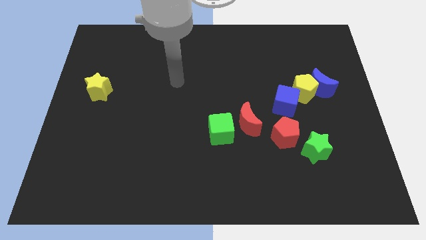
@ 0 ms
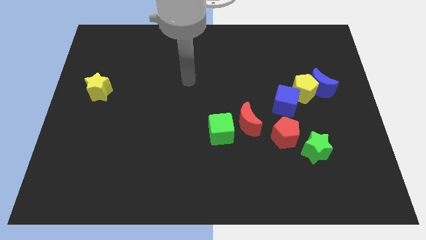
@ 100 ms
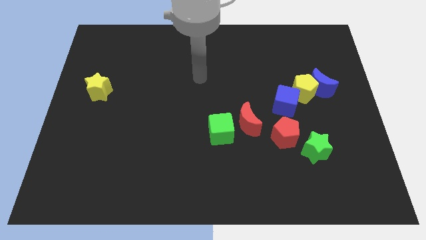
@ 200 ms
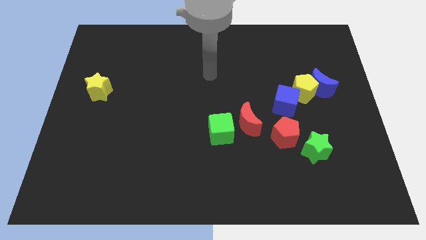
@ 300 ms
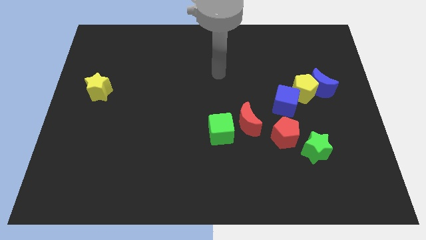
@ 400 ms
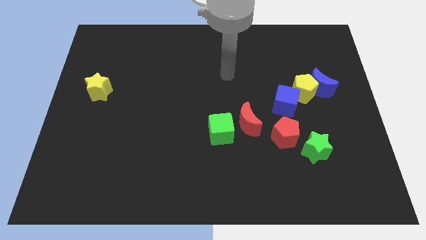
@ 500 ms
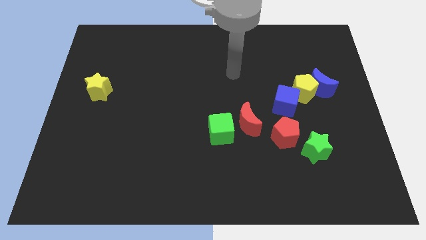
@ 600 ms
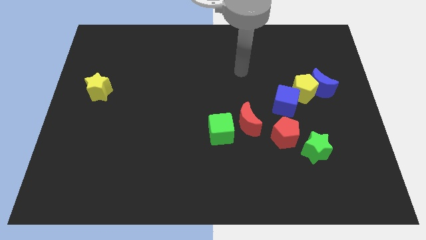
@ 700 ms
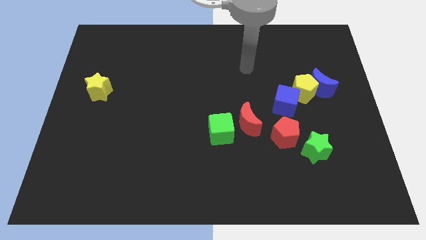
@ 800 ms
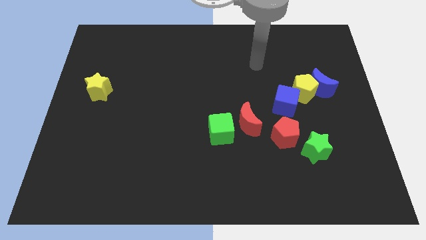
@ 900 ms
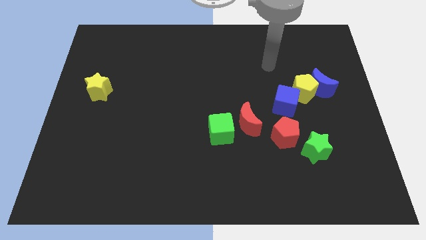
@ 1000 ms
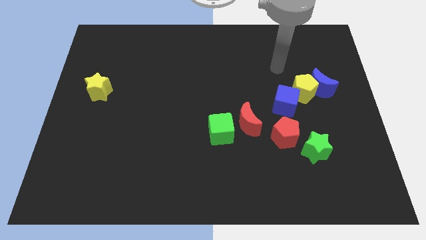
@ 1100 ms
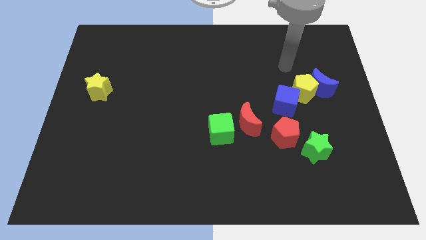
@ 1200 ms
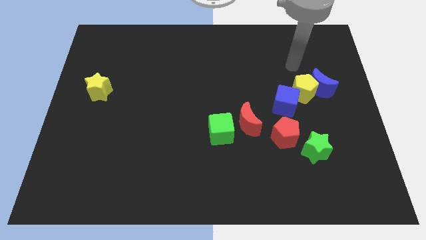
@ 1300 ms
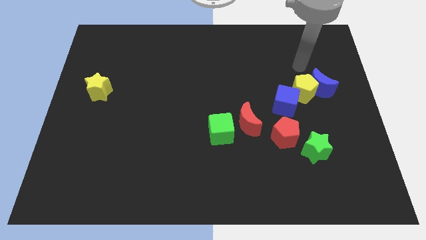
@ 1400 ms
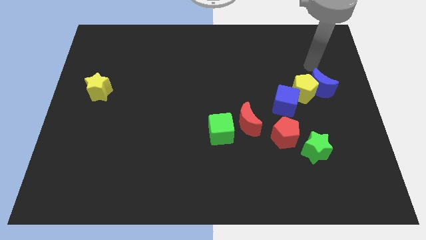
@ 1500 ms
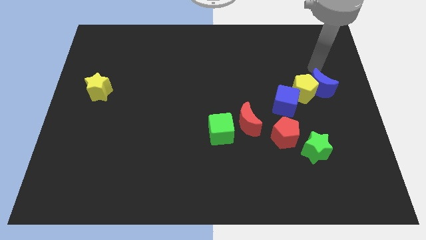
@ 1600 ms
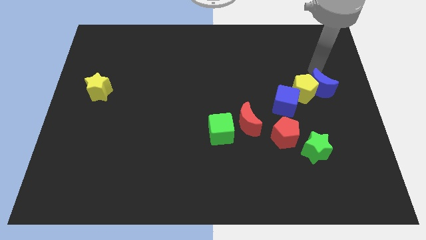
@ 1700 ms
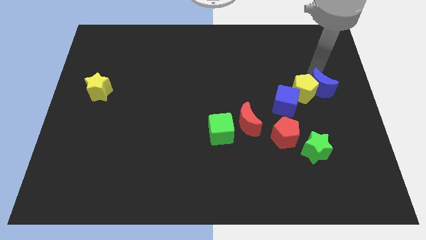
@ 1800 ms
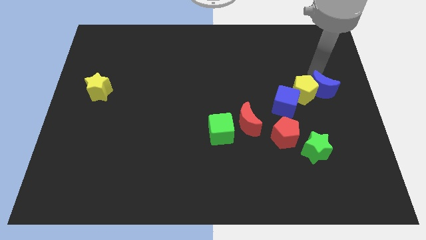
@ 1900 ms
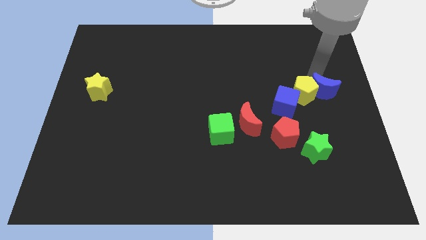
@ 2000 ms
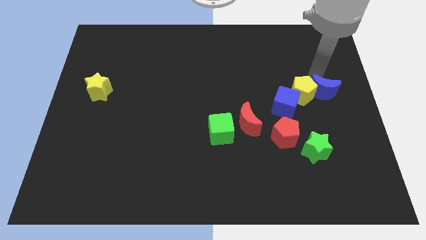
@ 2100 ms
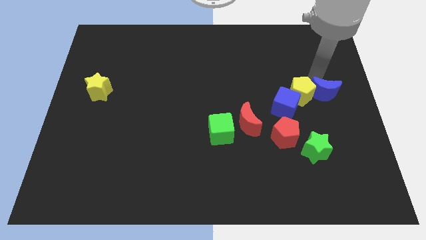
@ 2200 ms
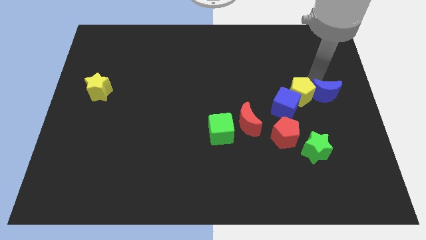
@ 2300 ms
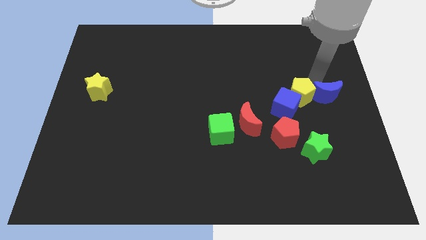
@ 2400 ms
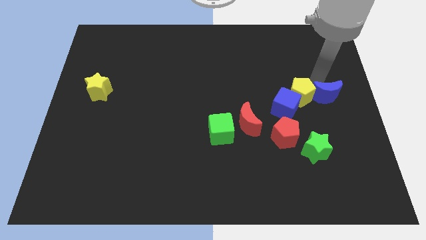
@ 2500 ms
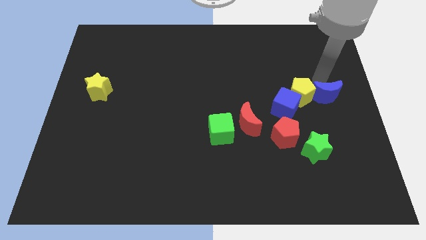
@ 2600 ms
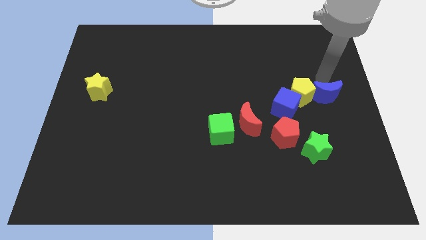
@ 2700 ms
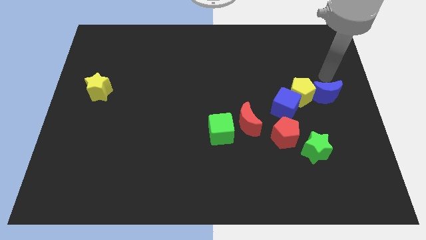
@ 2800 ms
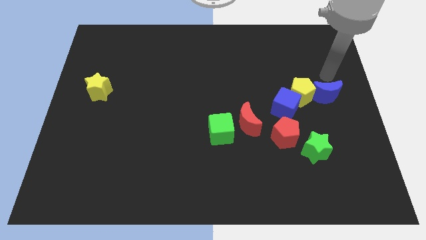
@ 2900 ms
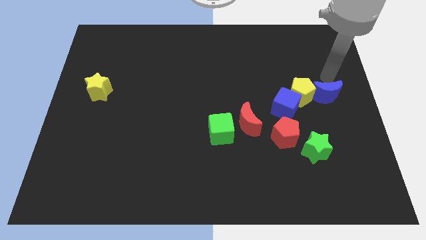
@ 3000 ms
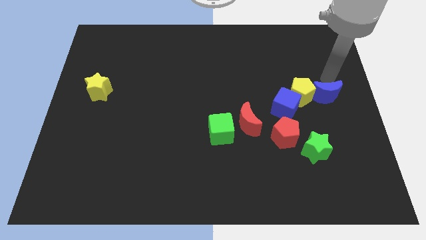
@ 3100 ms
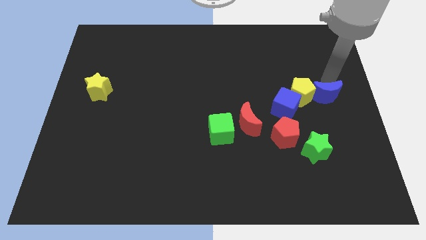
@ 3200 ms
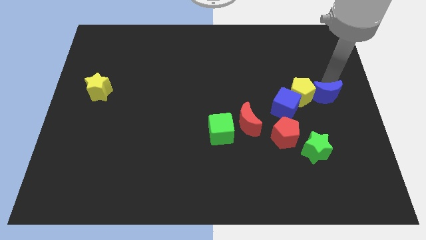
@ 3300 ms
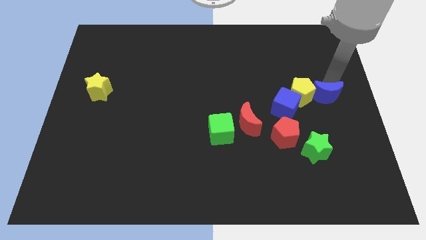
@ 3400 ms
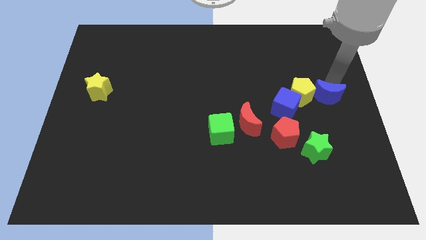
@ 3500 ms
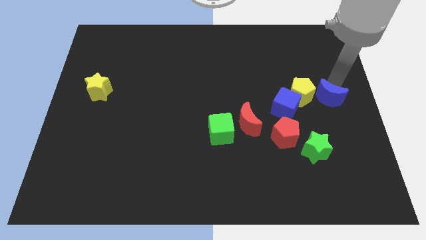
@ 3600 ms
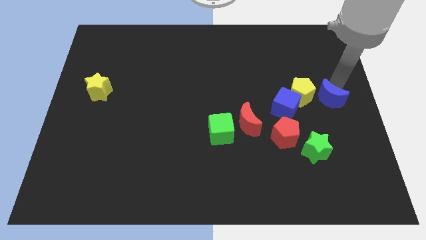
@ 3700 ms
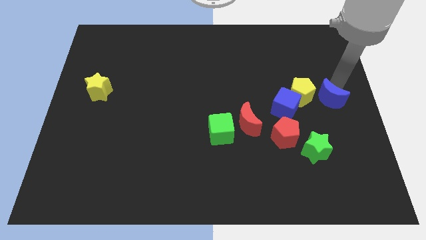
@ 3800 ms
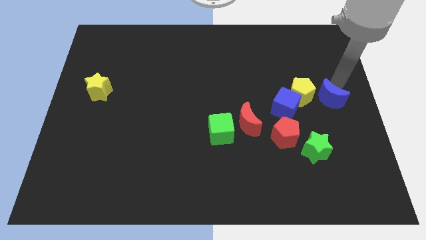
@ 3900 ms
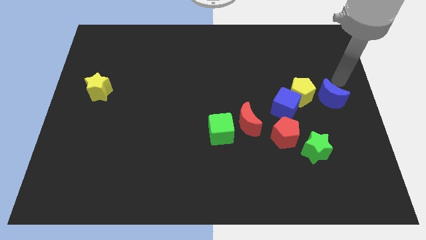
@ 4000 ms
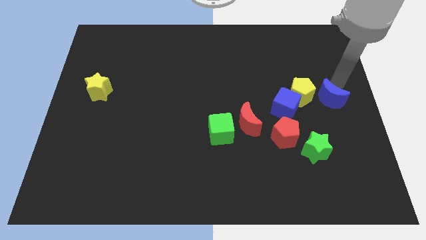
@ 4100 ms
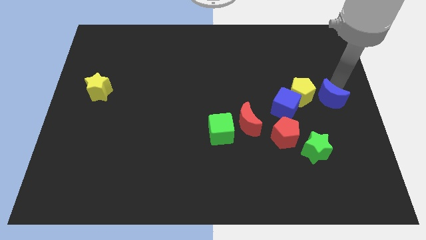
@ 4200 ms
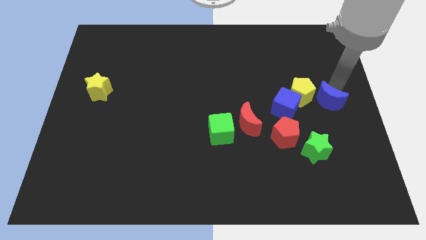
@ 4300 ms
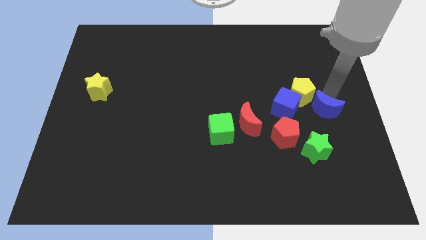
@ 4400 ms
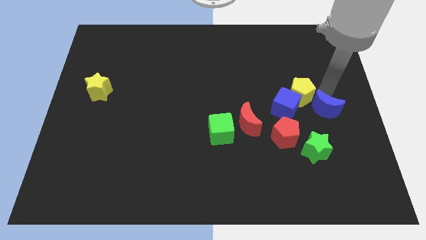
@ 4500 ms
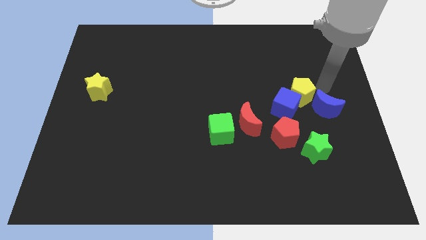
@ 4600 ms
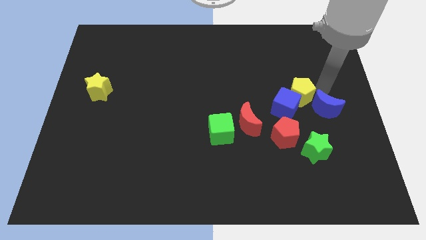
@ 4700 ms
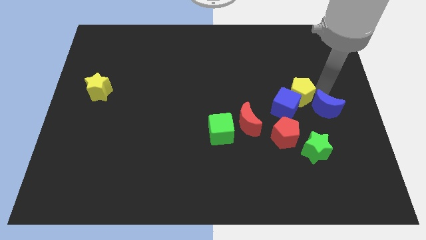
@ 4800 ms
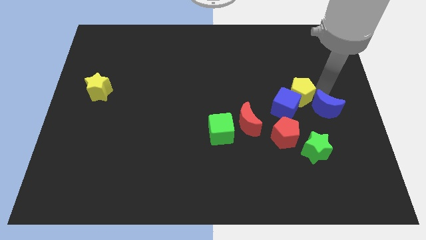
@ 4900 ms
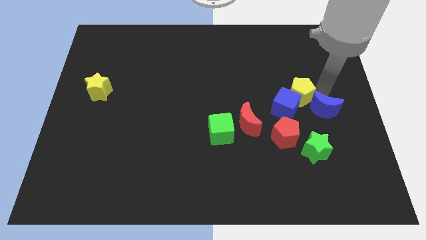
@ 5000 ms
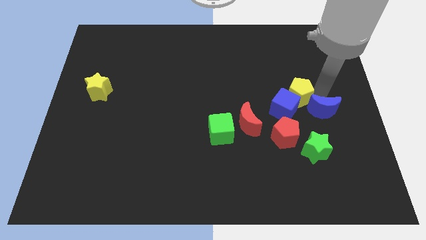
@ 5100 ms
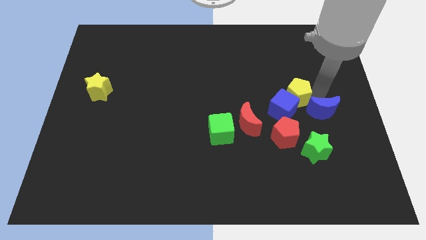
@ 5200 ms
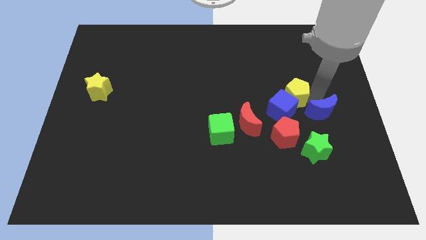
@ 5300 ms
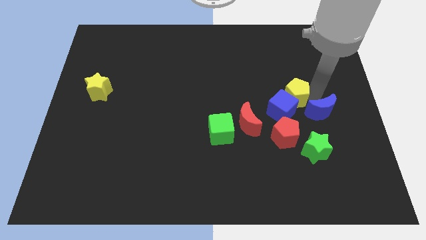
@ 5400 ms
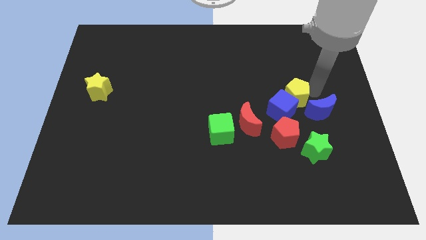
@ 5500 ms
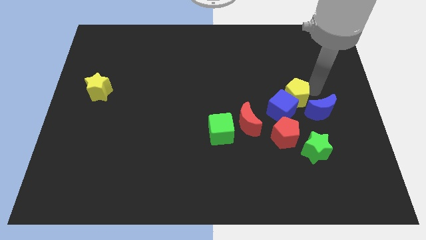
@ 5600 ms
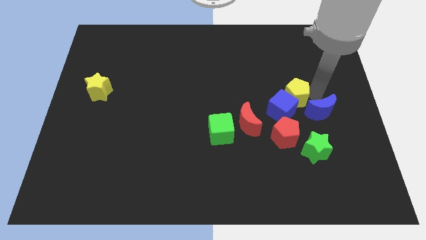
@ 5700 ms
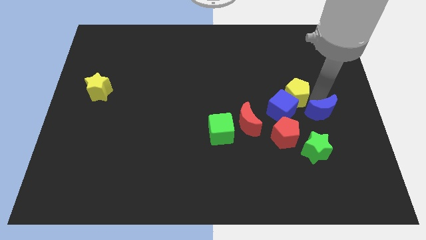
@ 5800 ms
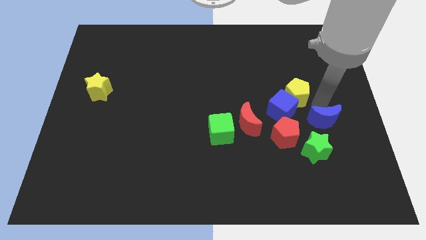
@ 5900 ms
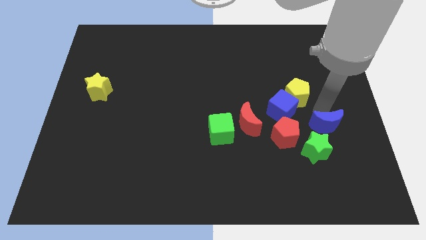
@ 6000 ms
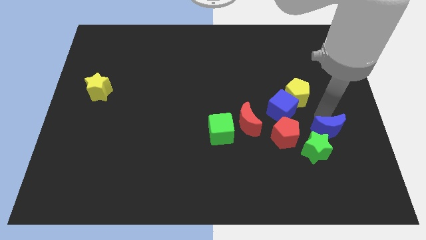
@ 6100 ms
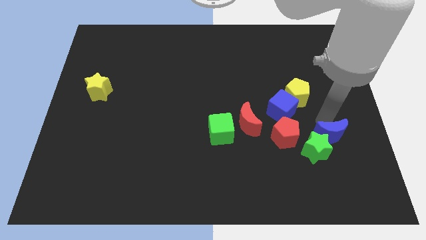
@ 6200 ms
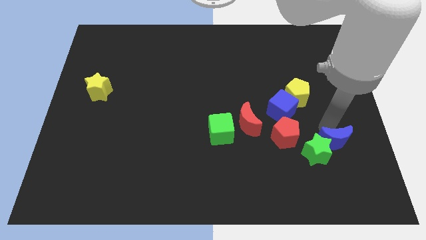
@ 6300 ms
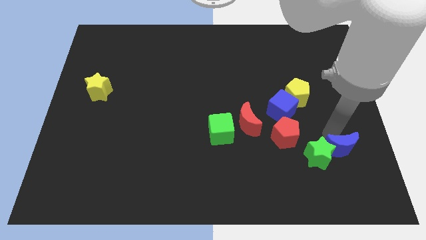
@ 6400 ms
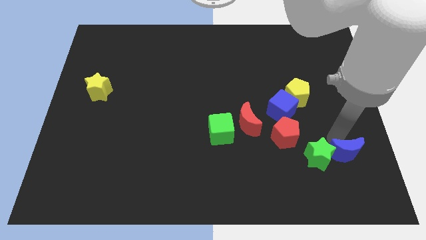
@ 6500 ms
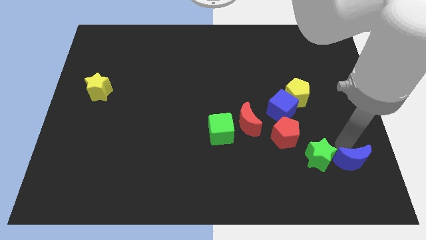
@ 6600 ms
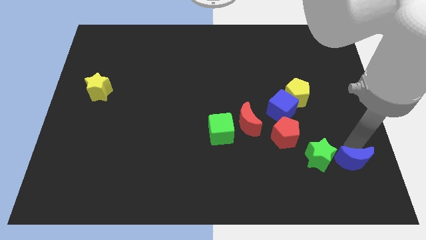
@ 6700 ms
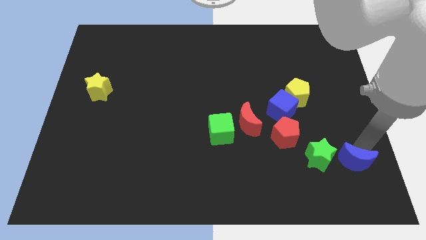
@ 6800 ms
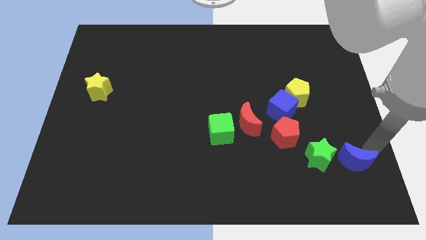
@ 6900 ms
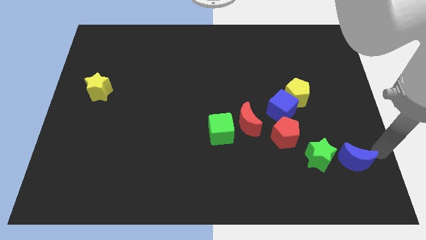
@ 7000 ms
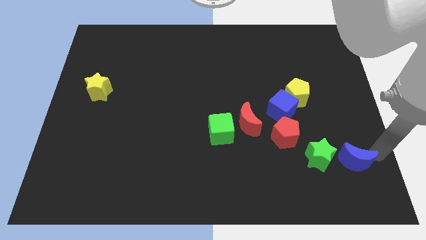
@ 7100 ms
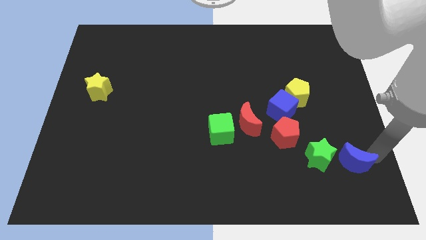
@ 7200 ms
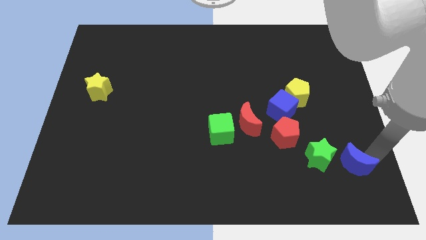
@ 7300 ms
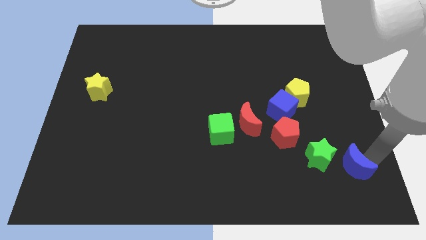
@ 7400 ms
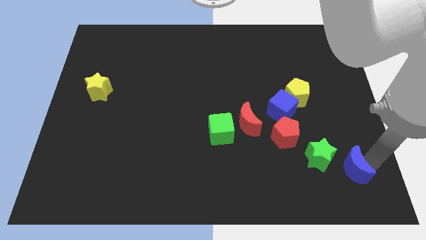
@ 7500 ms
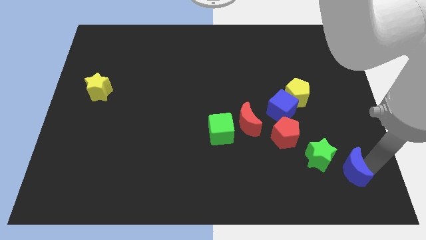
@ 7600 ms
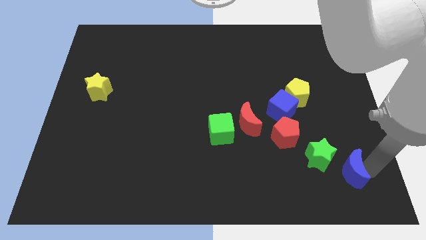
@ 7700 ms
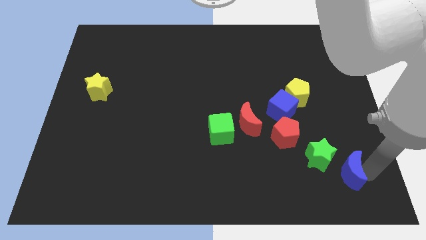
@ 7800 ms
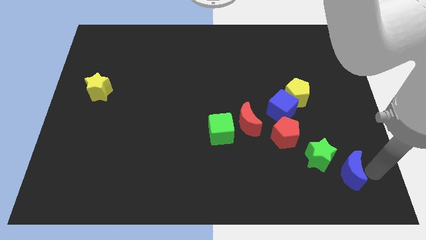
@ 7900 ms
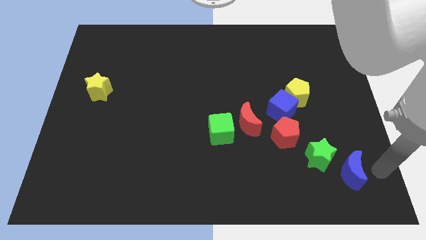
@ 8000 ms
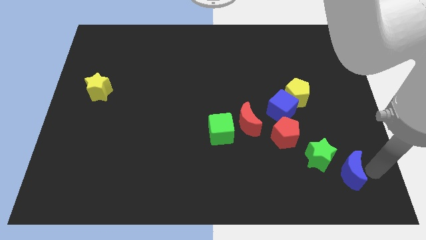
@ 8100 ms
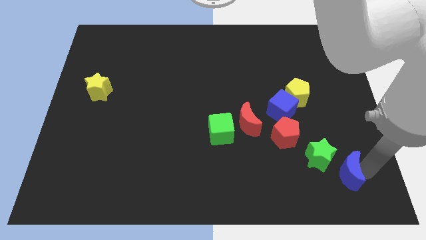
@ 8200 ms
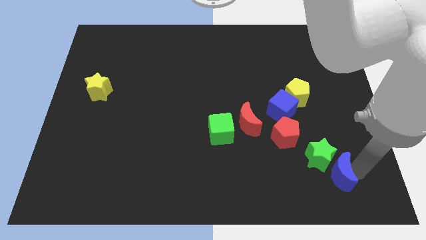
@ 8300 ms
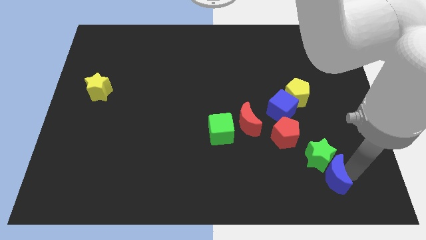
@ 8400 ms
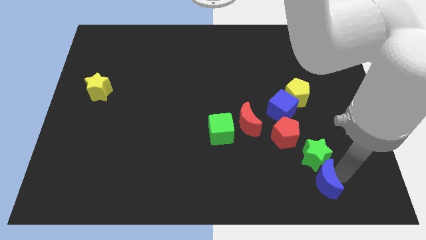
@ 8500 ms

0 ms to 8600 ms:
slide the blue moon to the bottom left of the green star
